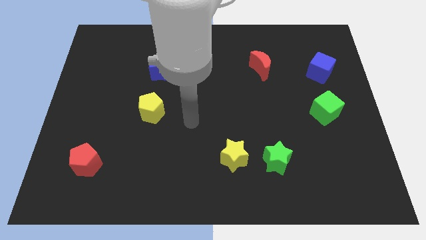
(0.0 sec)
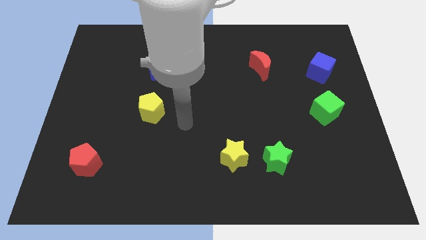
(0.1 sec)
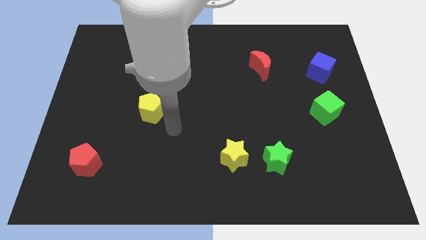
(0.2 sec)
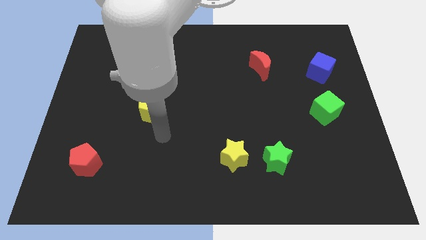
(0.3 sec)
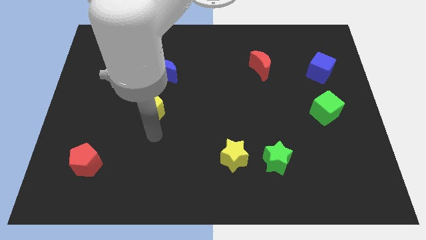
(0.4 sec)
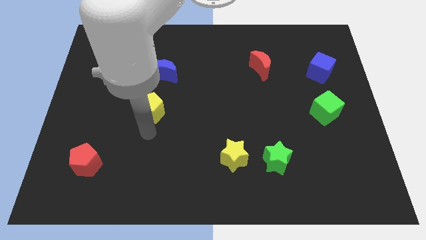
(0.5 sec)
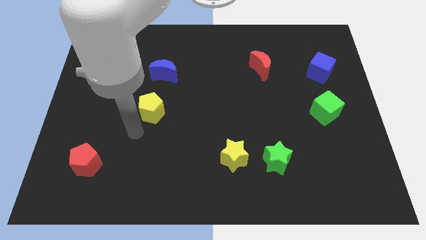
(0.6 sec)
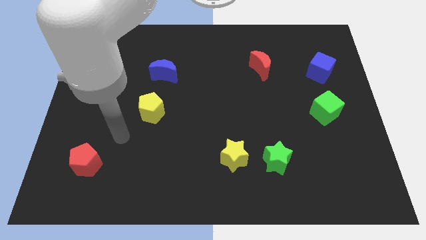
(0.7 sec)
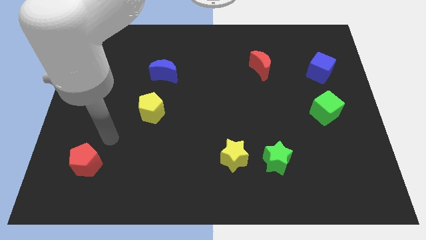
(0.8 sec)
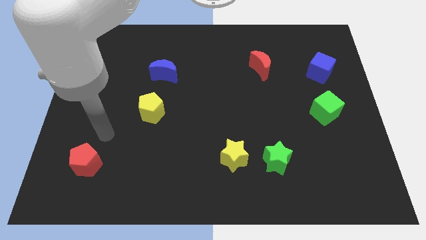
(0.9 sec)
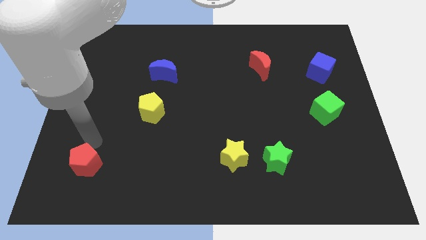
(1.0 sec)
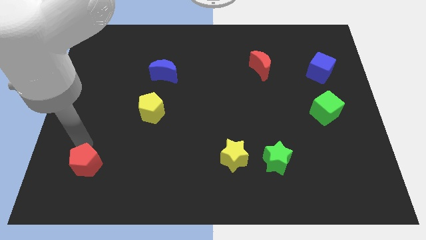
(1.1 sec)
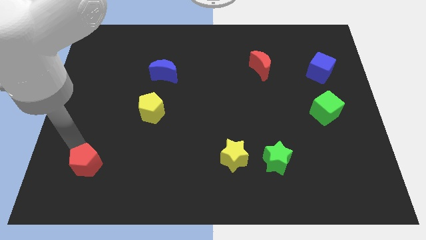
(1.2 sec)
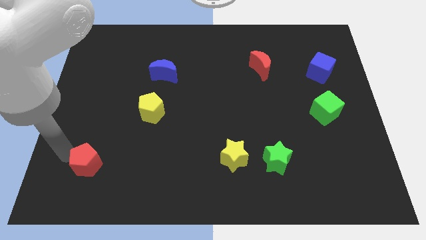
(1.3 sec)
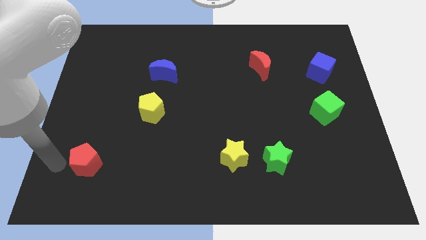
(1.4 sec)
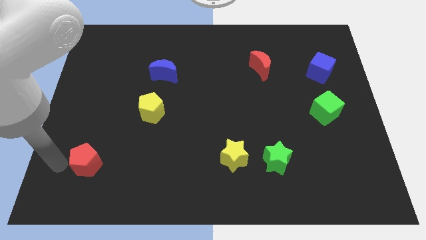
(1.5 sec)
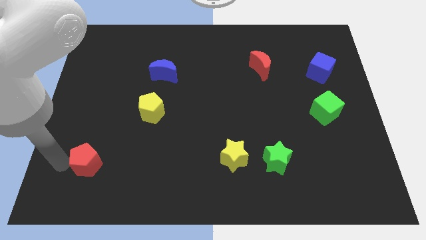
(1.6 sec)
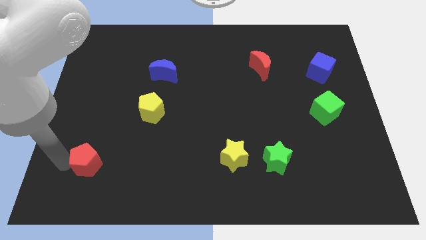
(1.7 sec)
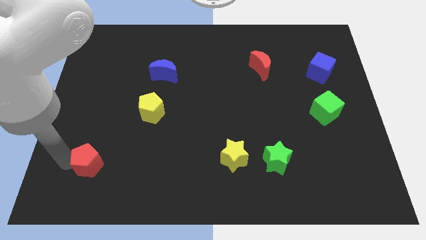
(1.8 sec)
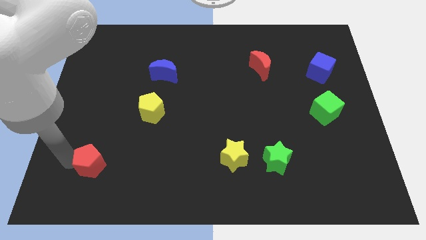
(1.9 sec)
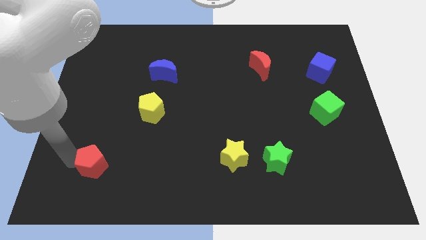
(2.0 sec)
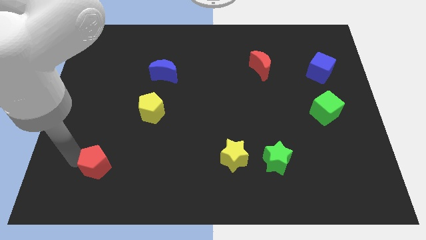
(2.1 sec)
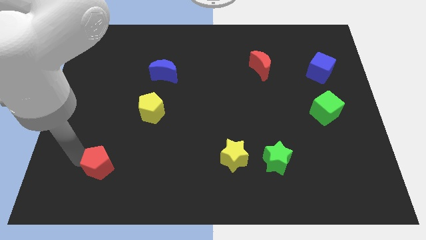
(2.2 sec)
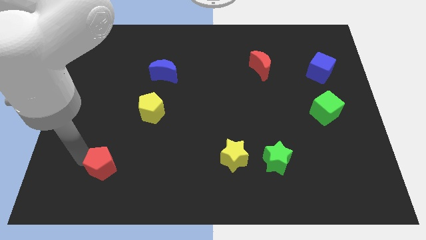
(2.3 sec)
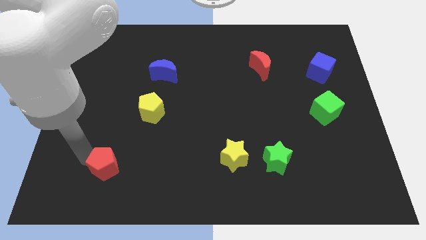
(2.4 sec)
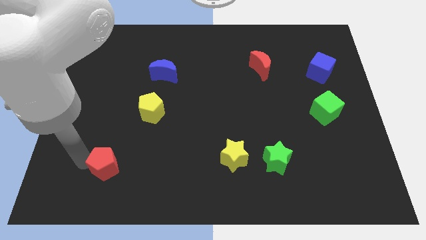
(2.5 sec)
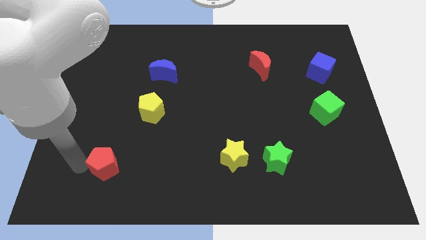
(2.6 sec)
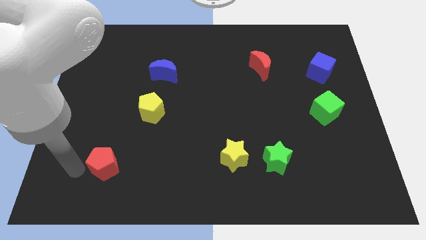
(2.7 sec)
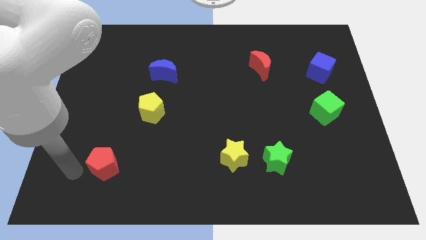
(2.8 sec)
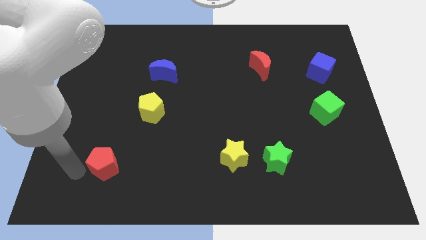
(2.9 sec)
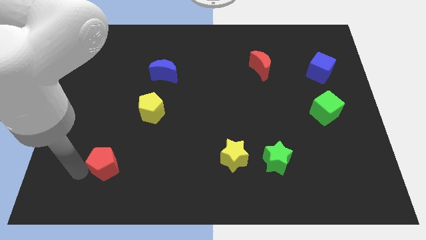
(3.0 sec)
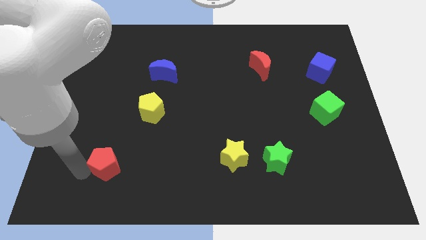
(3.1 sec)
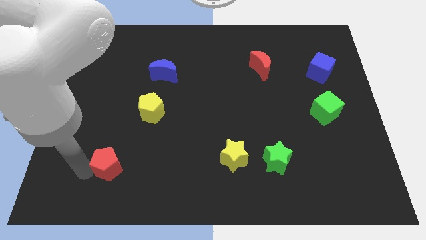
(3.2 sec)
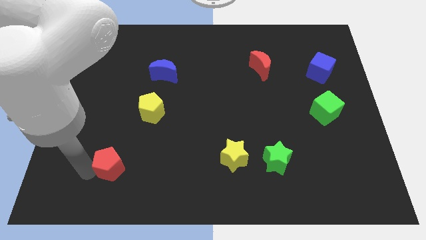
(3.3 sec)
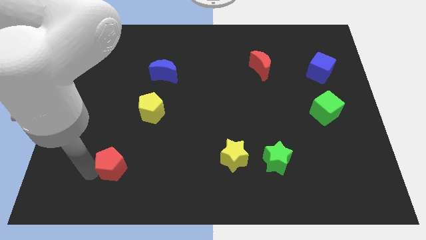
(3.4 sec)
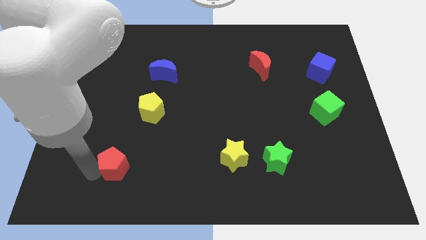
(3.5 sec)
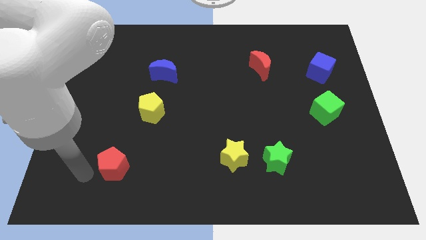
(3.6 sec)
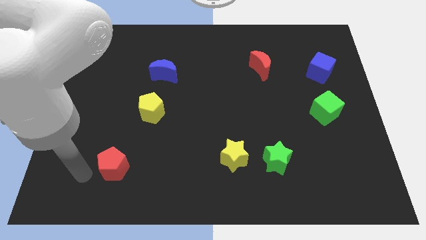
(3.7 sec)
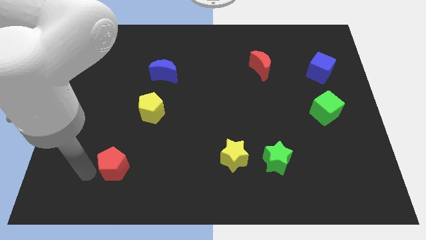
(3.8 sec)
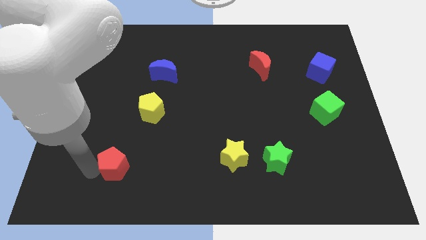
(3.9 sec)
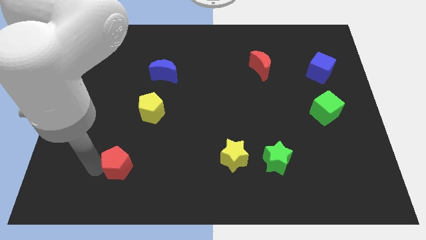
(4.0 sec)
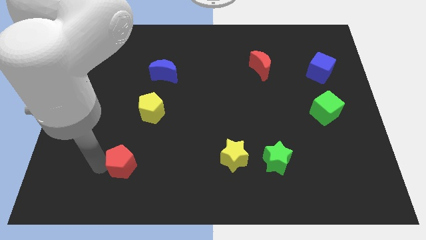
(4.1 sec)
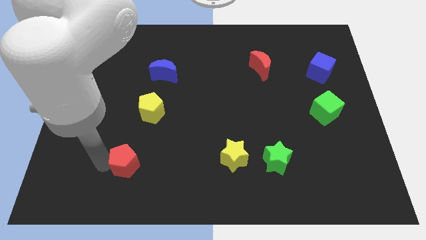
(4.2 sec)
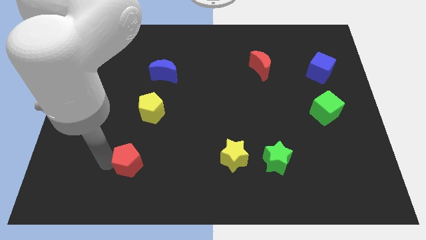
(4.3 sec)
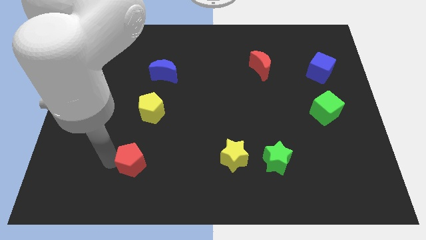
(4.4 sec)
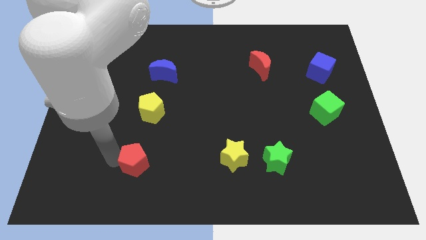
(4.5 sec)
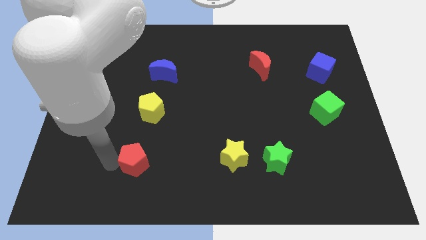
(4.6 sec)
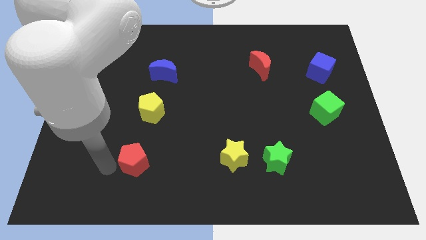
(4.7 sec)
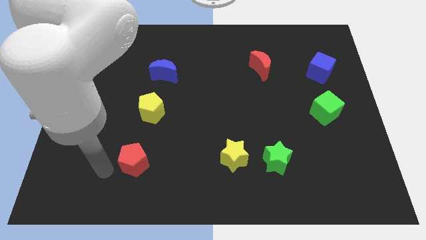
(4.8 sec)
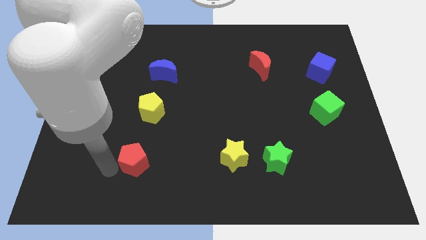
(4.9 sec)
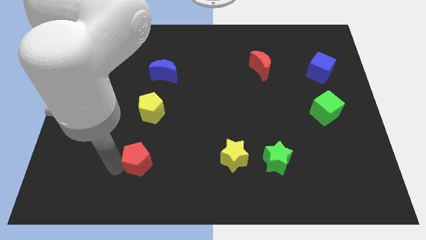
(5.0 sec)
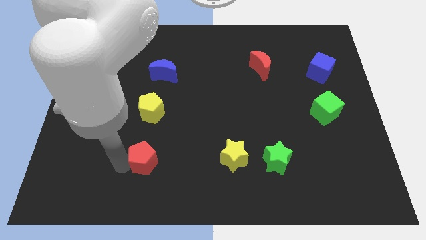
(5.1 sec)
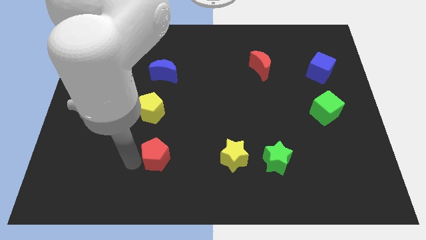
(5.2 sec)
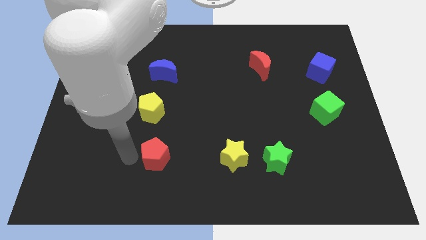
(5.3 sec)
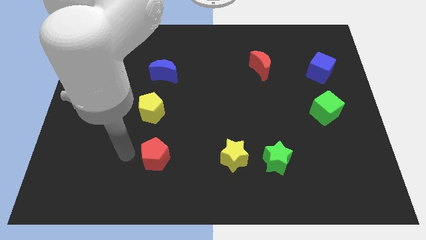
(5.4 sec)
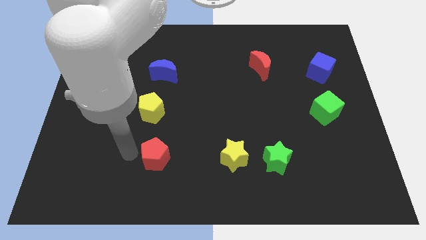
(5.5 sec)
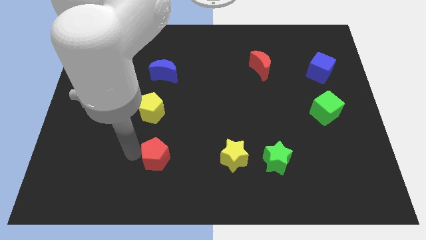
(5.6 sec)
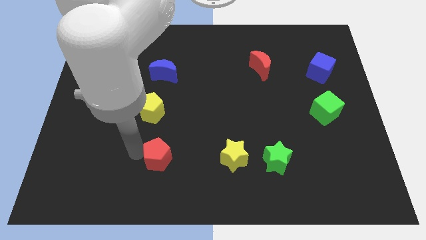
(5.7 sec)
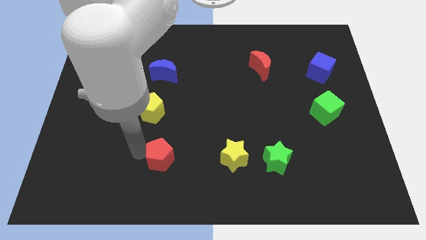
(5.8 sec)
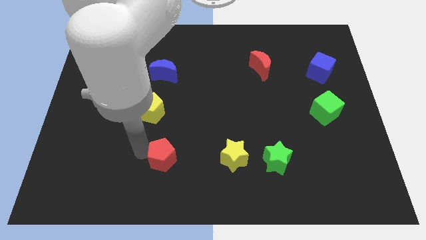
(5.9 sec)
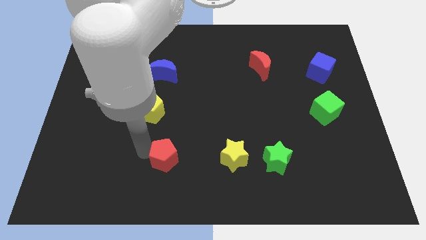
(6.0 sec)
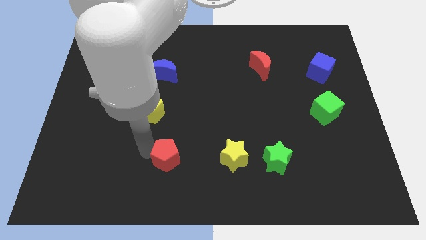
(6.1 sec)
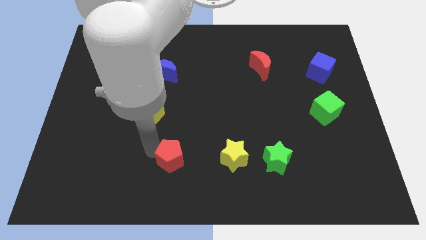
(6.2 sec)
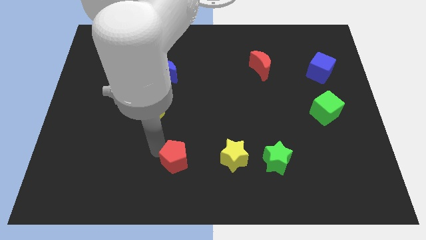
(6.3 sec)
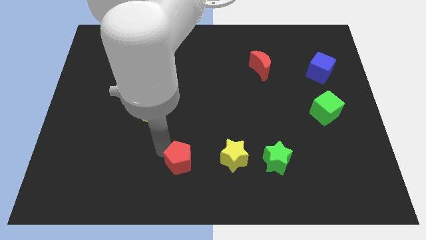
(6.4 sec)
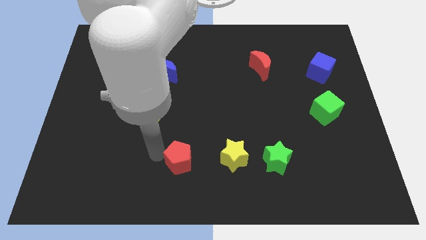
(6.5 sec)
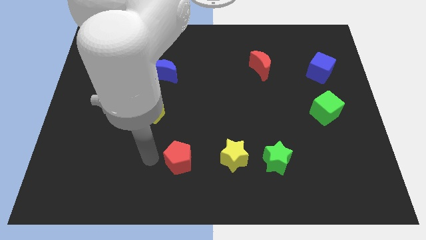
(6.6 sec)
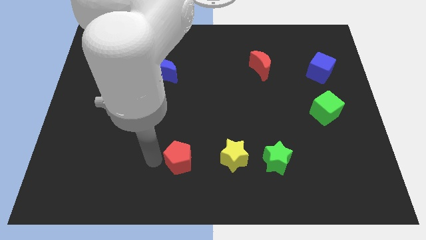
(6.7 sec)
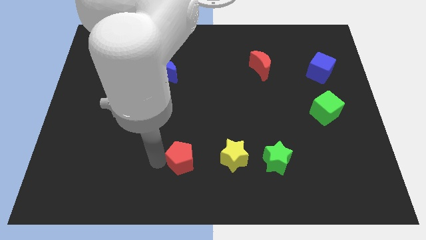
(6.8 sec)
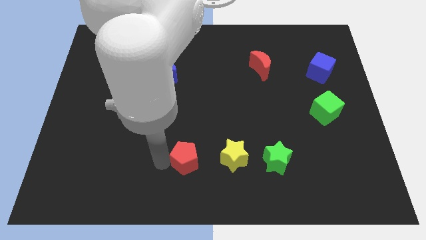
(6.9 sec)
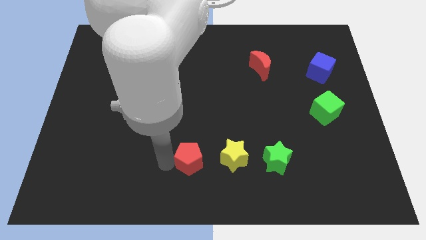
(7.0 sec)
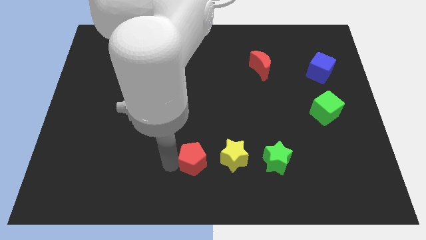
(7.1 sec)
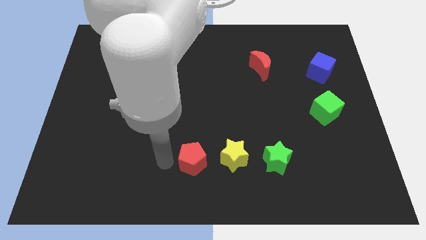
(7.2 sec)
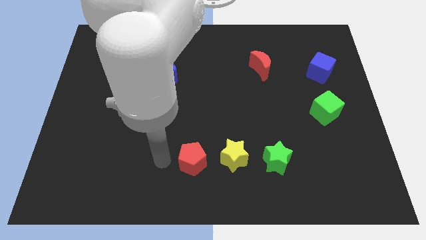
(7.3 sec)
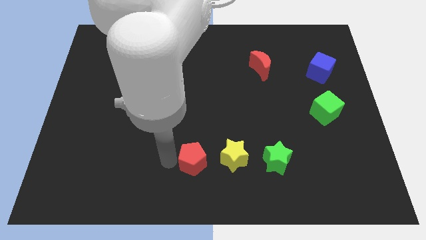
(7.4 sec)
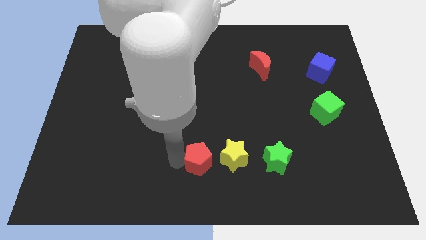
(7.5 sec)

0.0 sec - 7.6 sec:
move the red pentagon to the left of the green star
